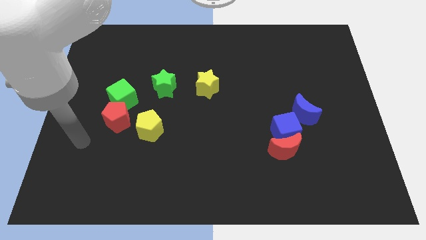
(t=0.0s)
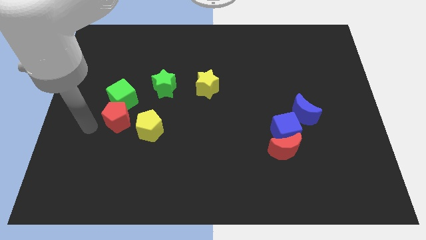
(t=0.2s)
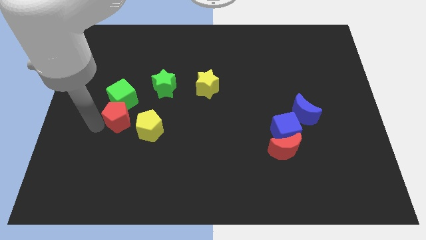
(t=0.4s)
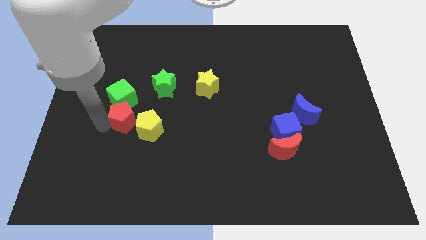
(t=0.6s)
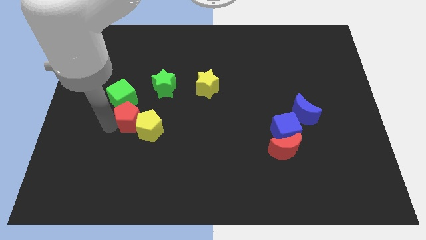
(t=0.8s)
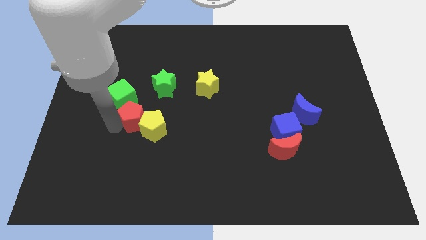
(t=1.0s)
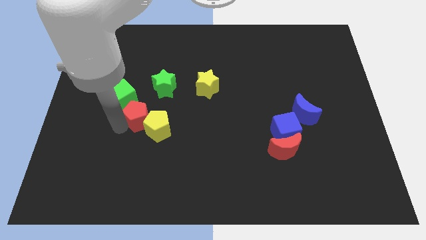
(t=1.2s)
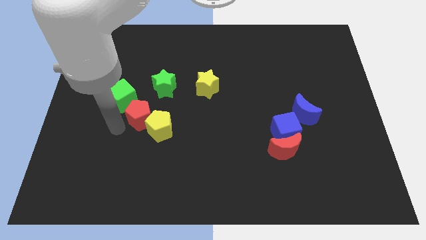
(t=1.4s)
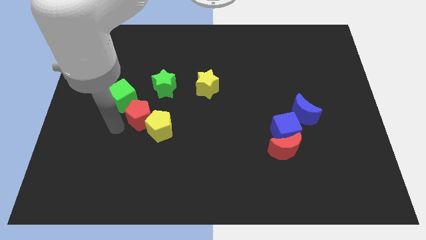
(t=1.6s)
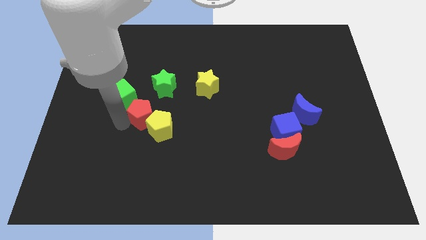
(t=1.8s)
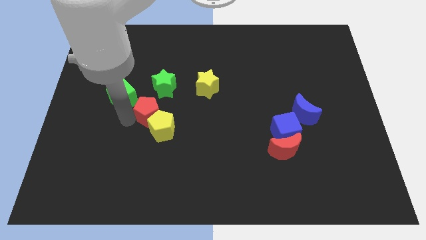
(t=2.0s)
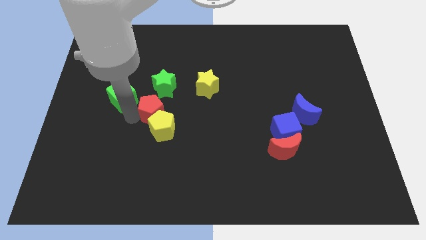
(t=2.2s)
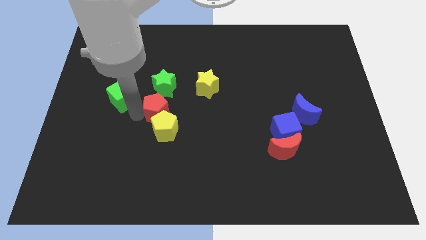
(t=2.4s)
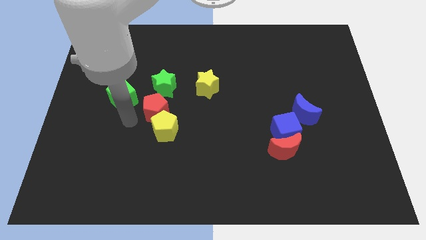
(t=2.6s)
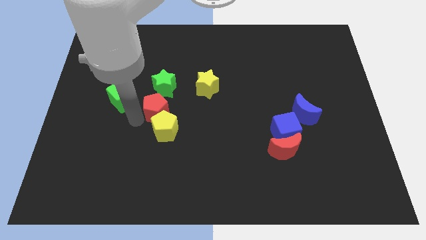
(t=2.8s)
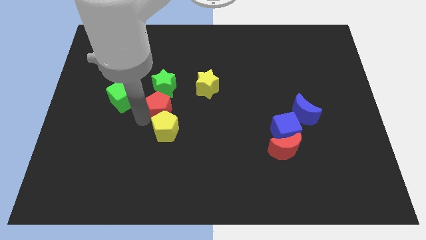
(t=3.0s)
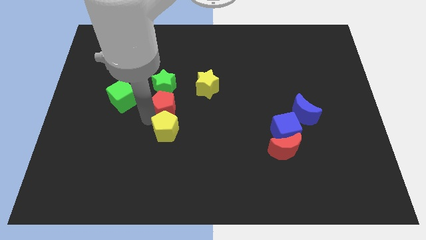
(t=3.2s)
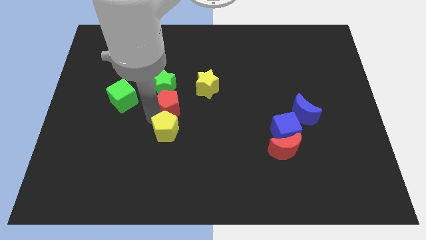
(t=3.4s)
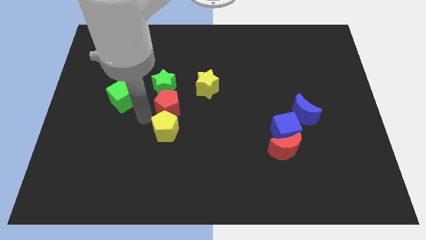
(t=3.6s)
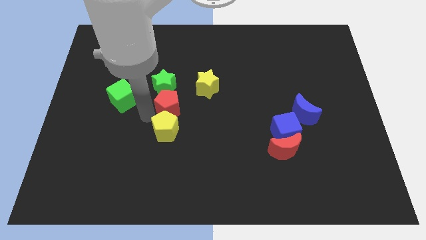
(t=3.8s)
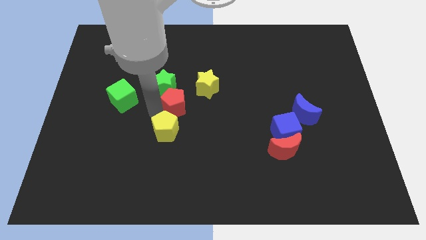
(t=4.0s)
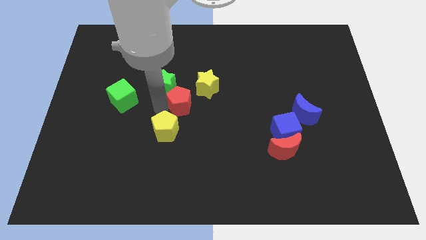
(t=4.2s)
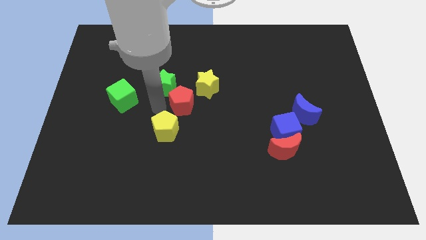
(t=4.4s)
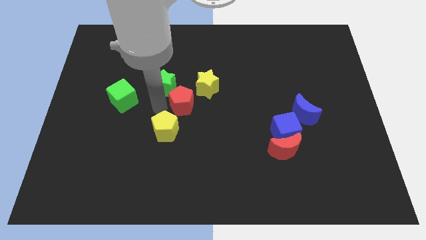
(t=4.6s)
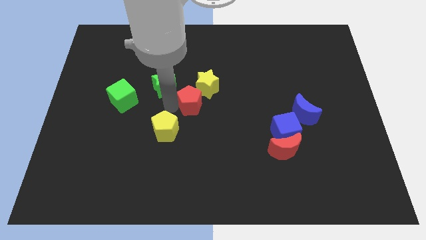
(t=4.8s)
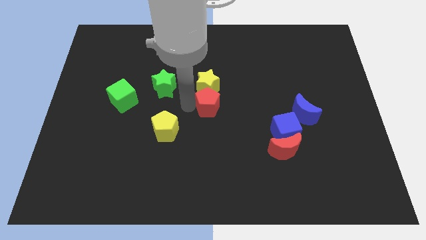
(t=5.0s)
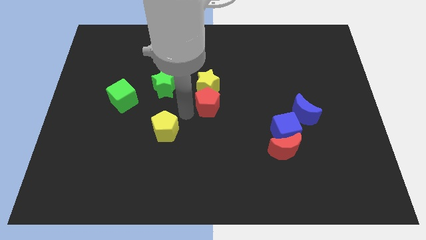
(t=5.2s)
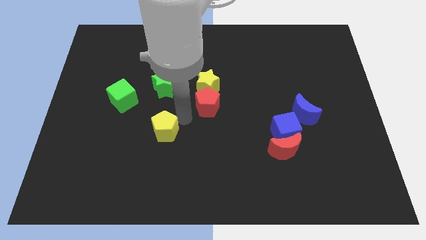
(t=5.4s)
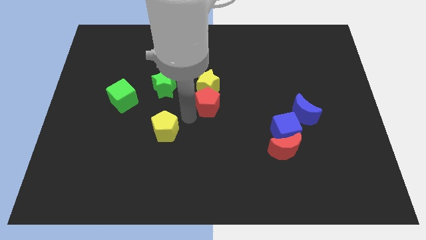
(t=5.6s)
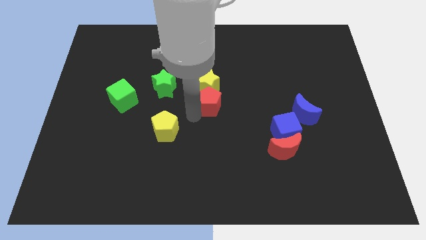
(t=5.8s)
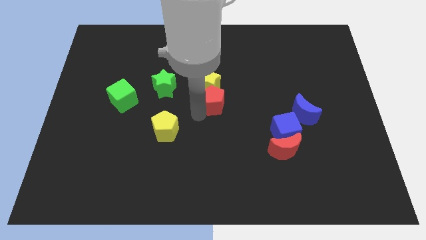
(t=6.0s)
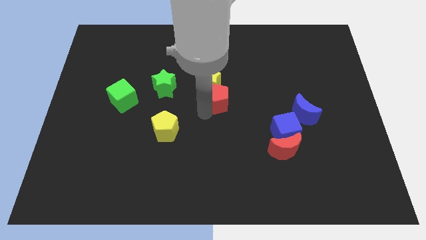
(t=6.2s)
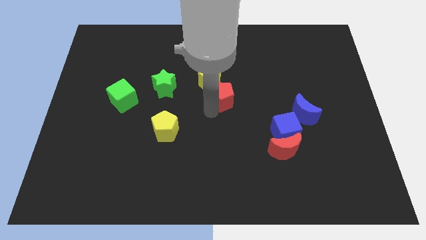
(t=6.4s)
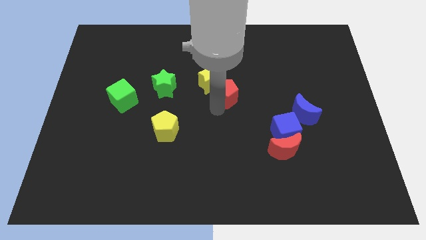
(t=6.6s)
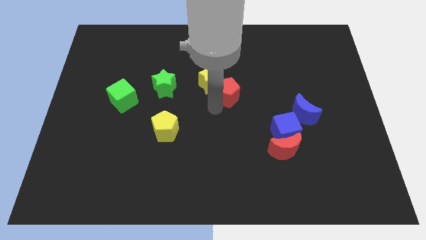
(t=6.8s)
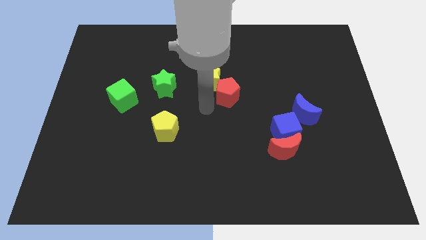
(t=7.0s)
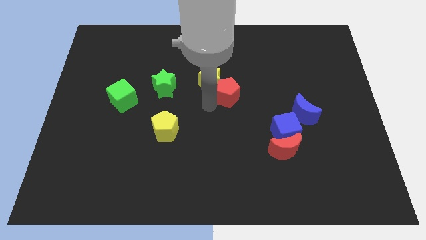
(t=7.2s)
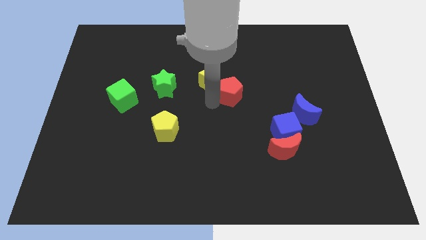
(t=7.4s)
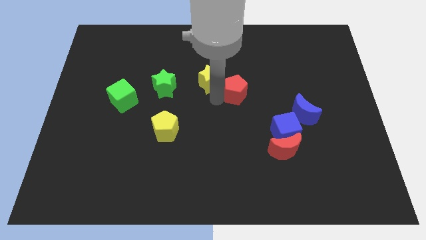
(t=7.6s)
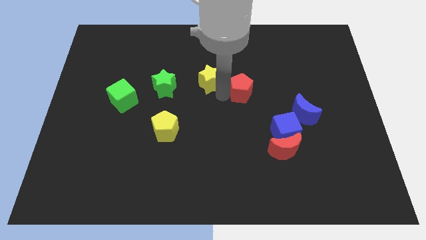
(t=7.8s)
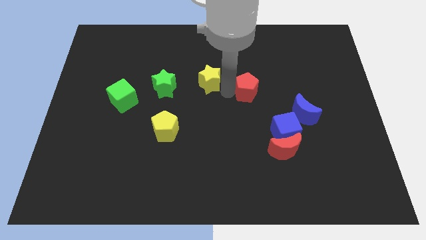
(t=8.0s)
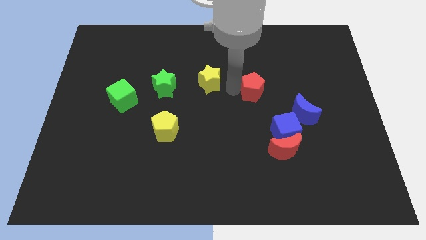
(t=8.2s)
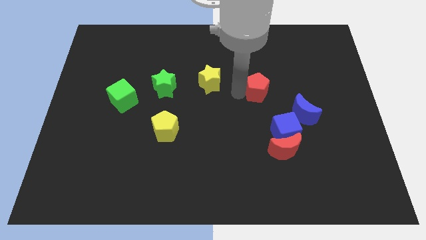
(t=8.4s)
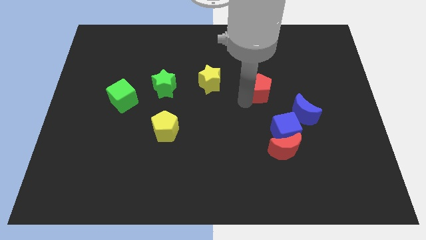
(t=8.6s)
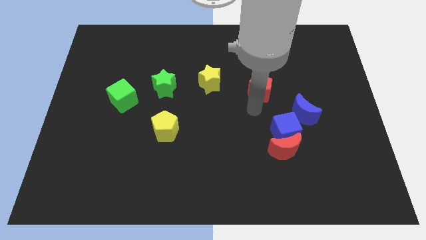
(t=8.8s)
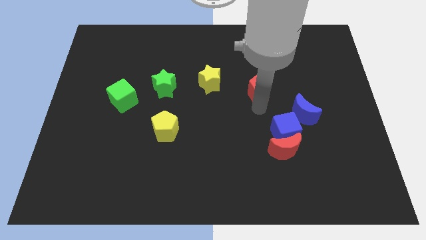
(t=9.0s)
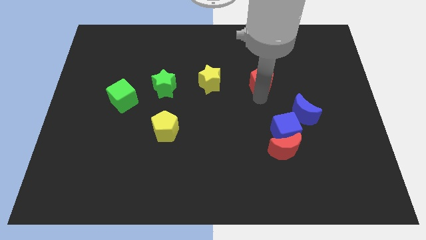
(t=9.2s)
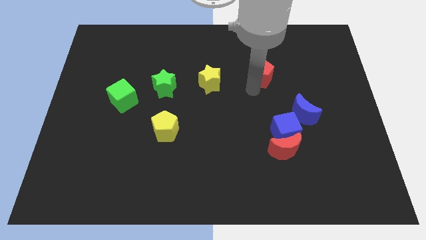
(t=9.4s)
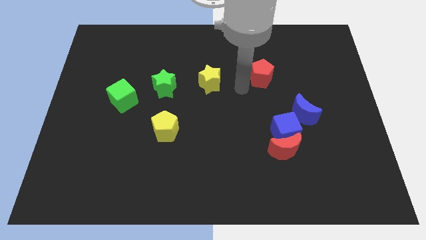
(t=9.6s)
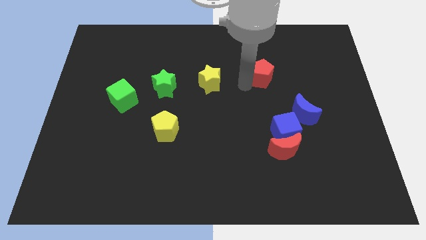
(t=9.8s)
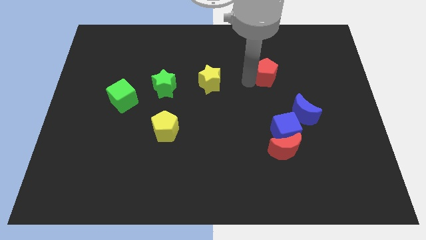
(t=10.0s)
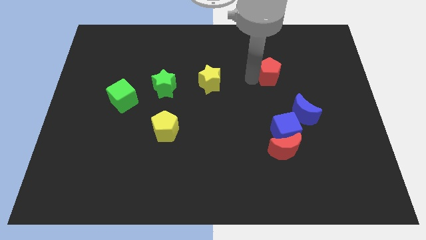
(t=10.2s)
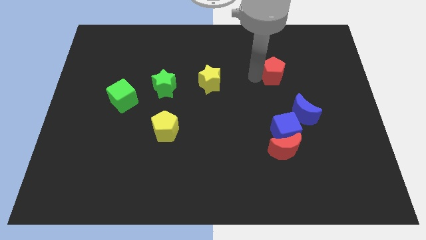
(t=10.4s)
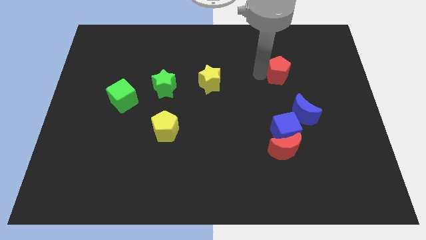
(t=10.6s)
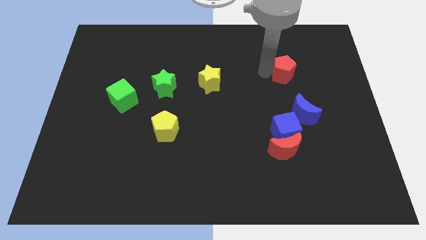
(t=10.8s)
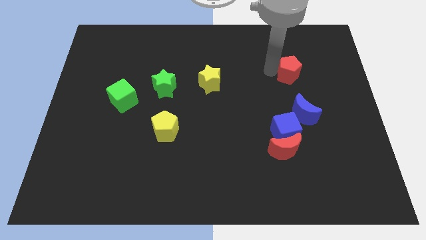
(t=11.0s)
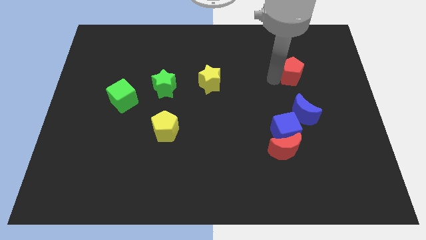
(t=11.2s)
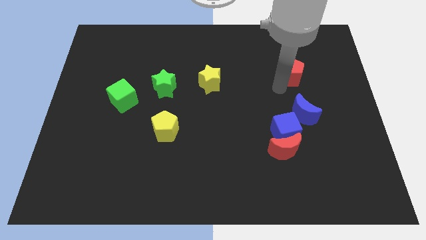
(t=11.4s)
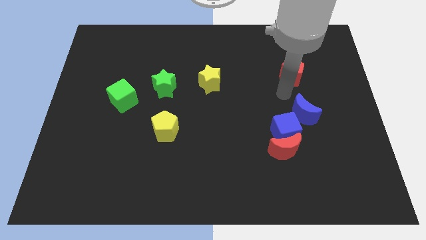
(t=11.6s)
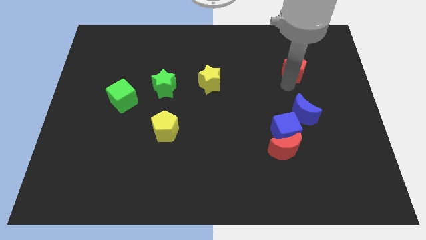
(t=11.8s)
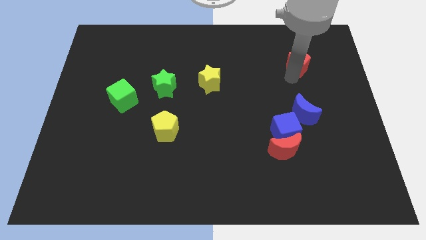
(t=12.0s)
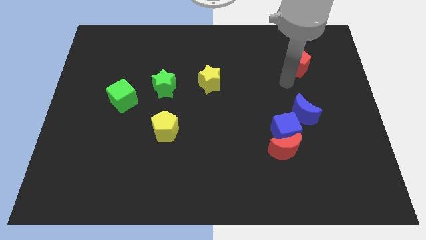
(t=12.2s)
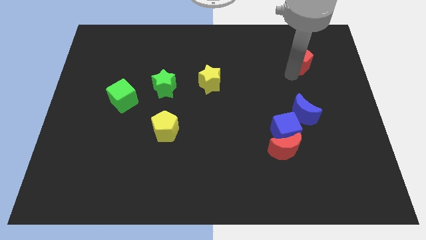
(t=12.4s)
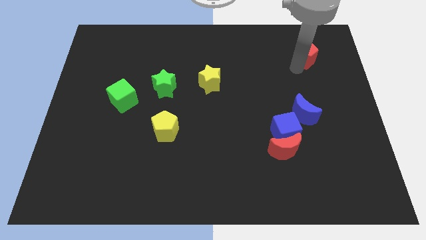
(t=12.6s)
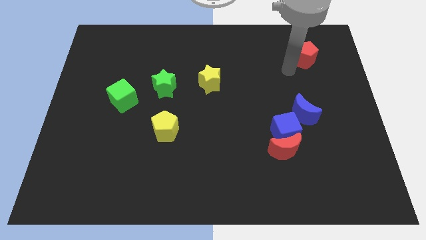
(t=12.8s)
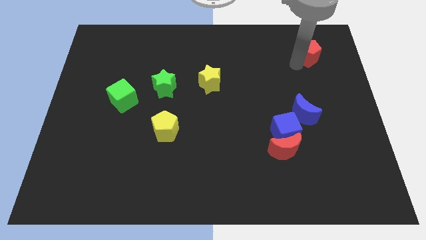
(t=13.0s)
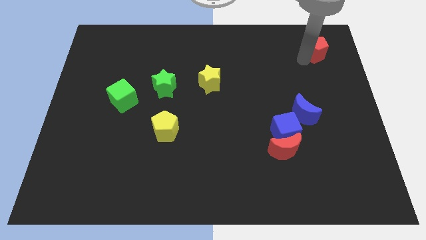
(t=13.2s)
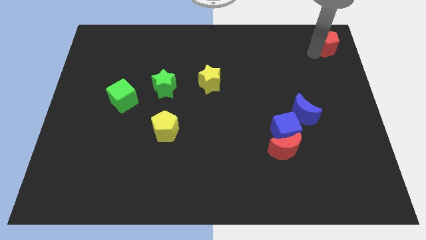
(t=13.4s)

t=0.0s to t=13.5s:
push the red pentagon to the top right of the board
